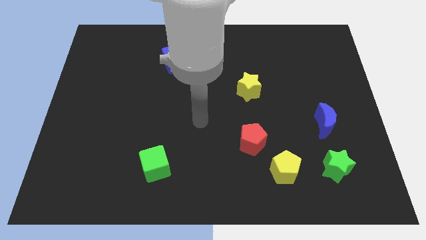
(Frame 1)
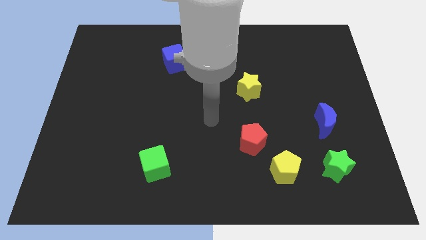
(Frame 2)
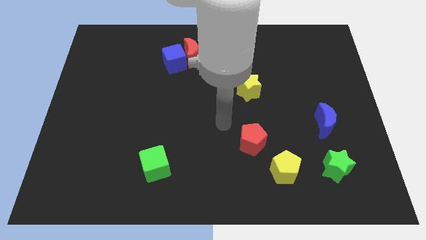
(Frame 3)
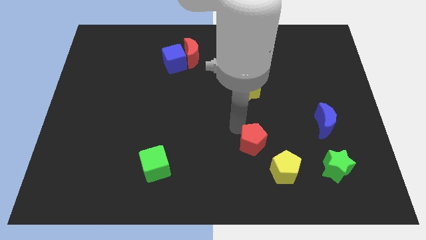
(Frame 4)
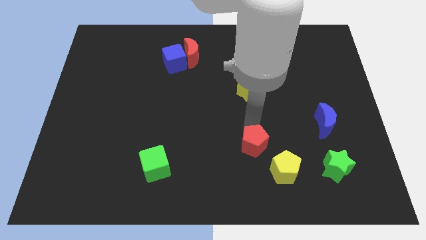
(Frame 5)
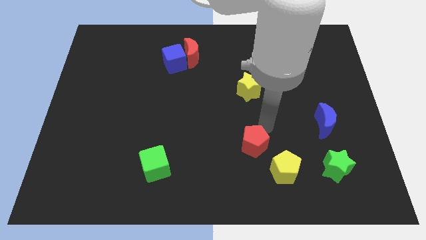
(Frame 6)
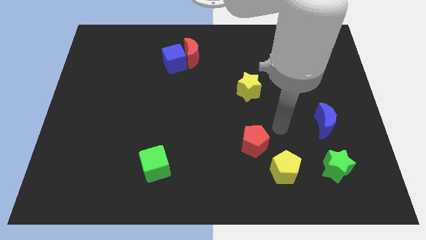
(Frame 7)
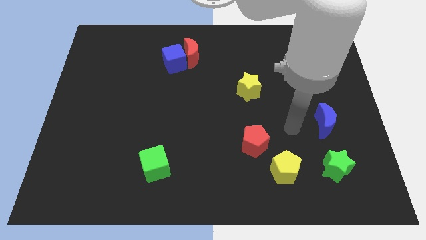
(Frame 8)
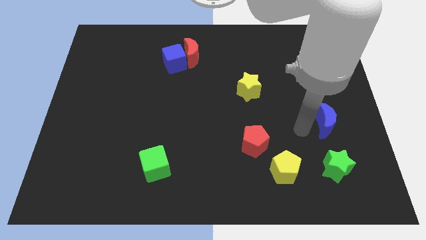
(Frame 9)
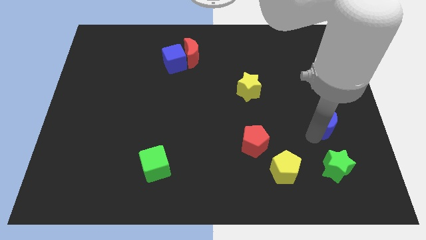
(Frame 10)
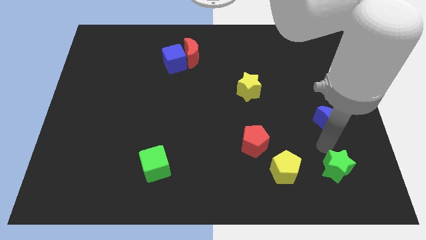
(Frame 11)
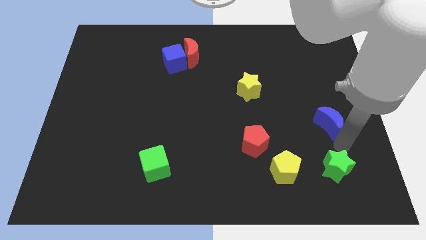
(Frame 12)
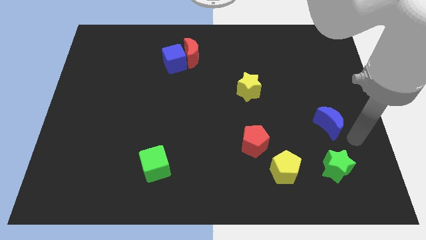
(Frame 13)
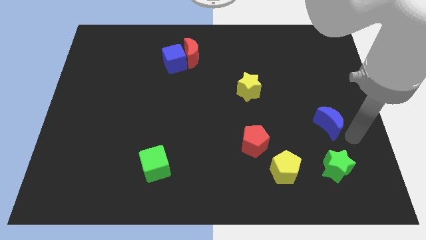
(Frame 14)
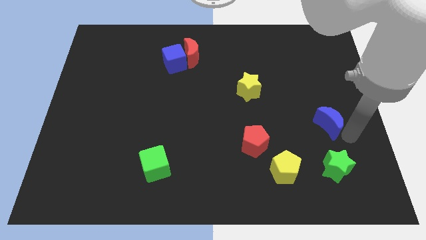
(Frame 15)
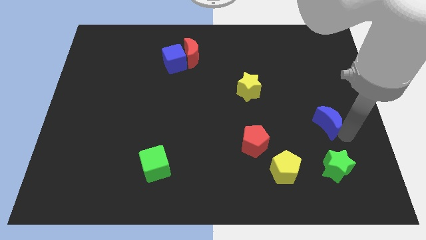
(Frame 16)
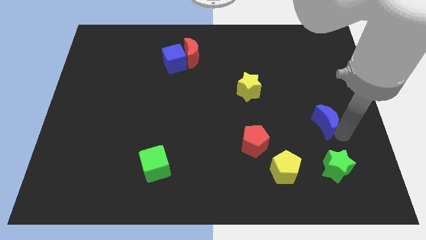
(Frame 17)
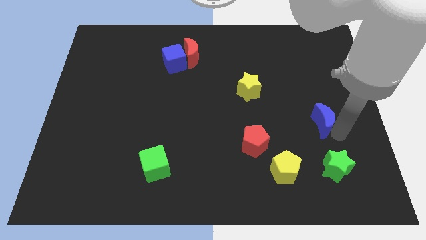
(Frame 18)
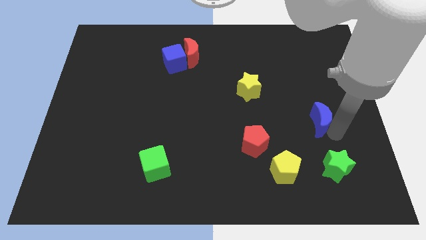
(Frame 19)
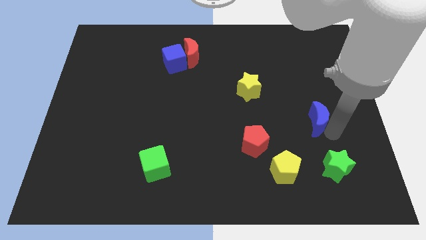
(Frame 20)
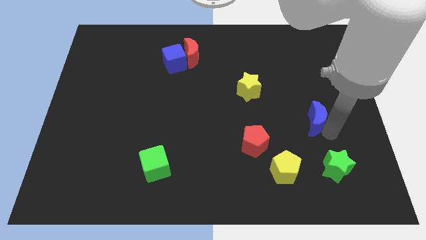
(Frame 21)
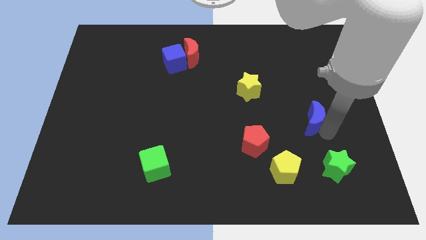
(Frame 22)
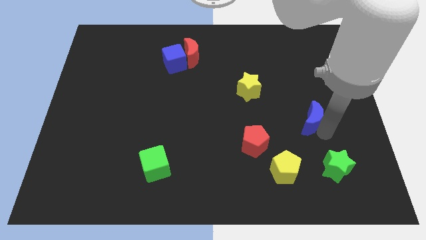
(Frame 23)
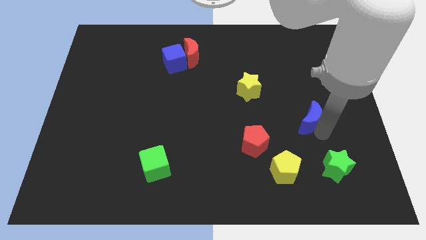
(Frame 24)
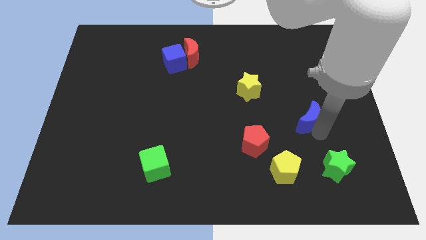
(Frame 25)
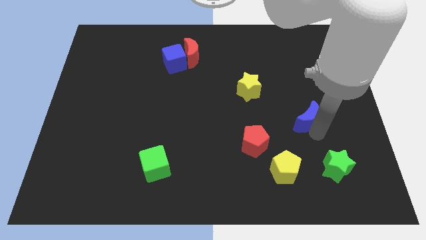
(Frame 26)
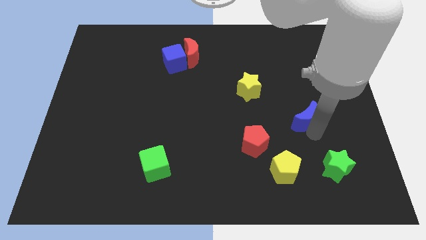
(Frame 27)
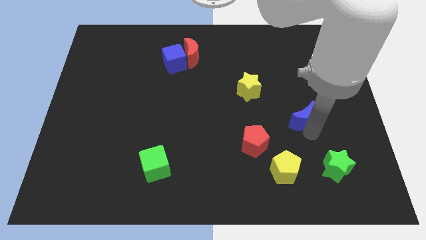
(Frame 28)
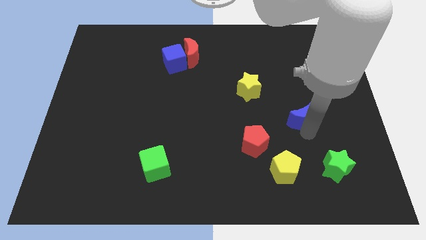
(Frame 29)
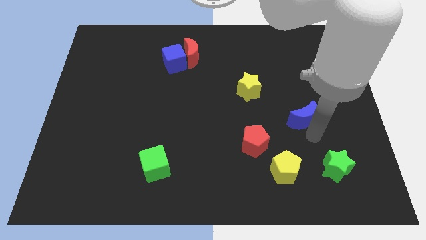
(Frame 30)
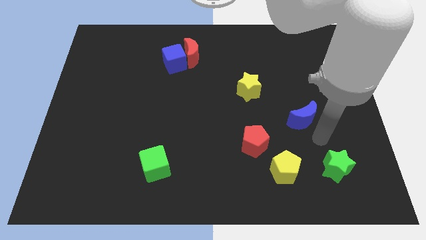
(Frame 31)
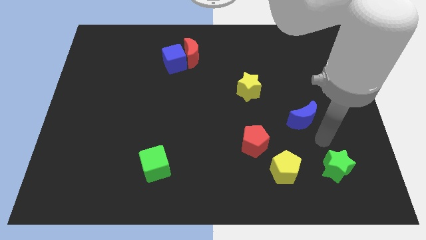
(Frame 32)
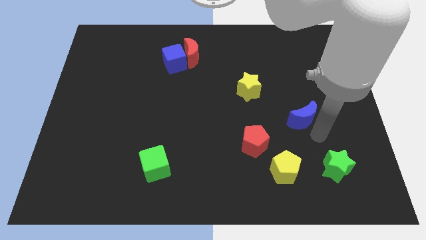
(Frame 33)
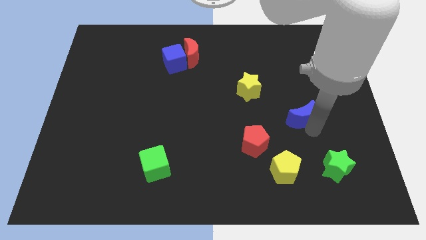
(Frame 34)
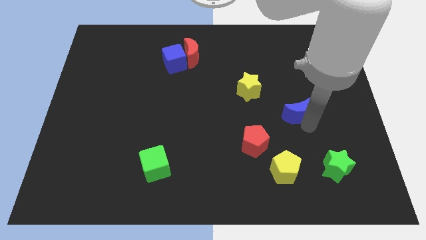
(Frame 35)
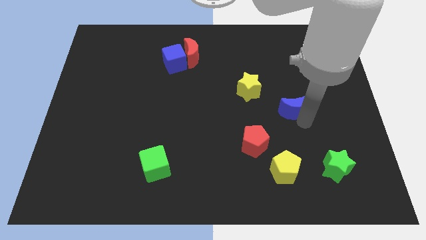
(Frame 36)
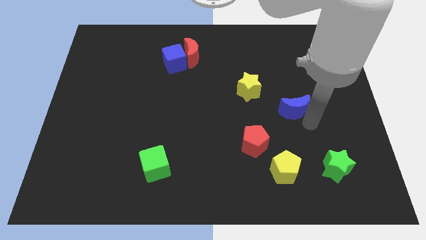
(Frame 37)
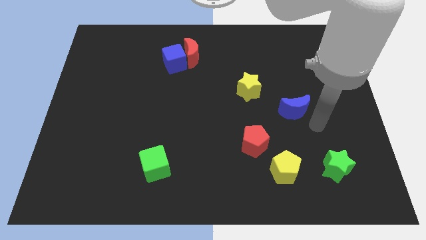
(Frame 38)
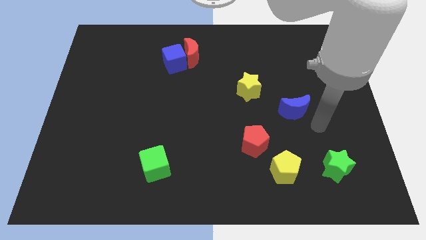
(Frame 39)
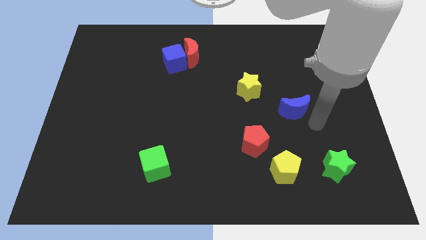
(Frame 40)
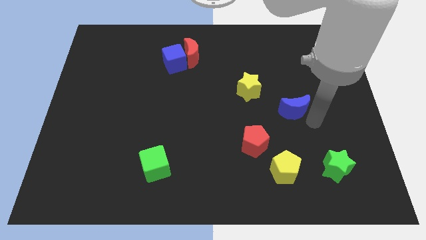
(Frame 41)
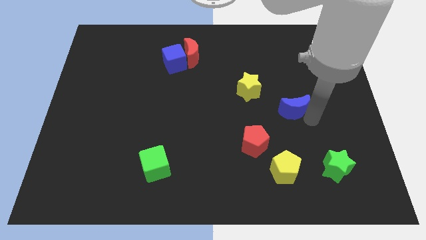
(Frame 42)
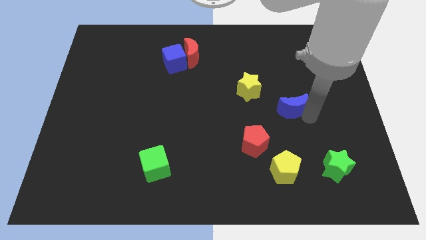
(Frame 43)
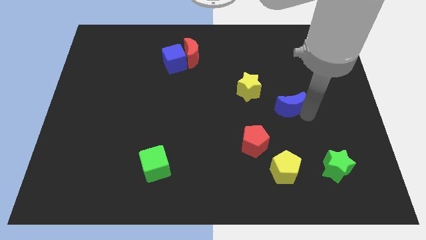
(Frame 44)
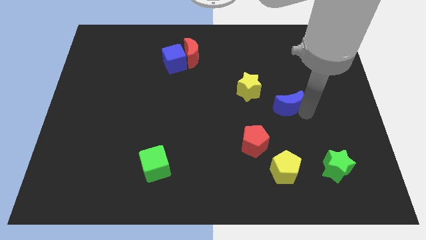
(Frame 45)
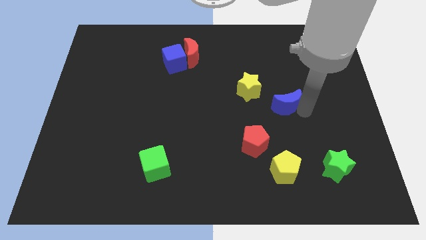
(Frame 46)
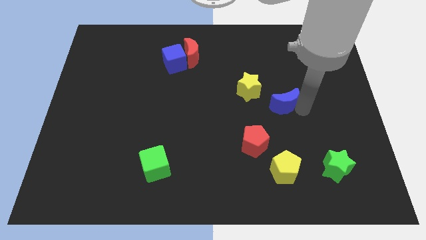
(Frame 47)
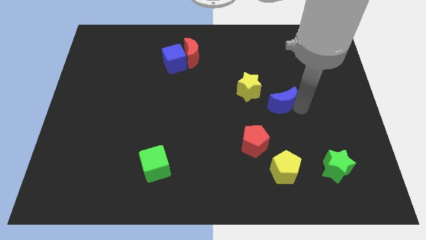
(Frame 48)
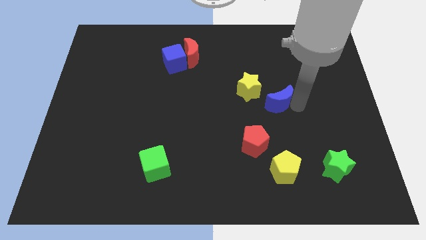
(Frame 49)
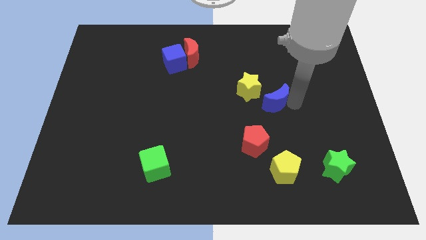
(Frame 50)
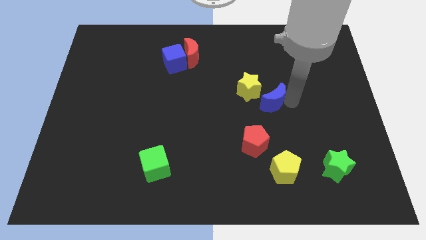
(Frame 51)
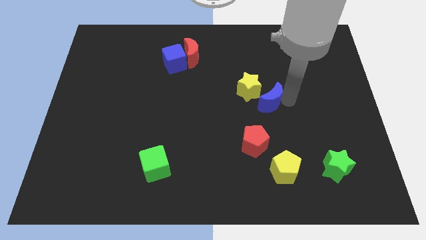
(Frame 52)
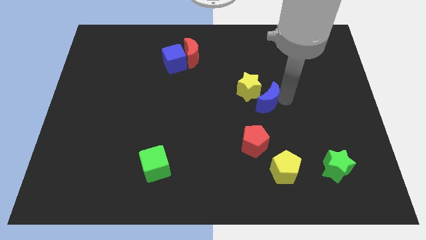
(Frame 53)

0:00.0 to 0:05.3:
move the blue moon to the yellow star

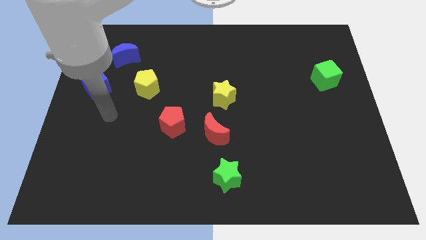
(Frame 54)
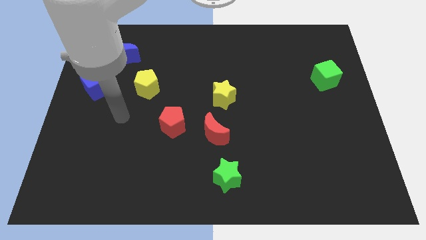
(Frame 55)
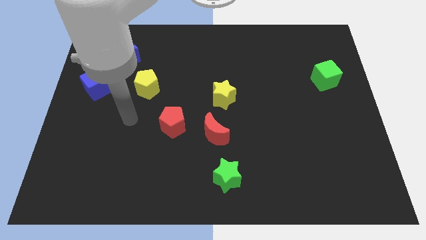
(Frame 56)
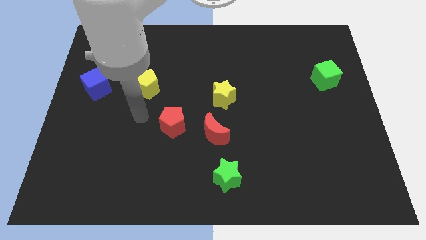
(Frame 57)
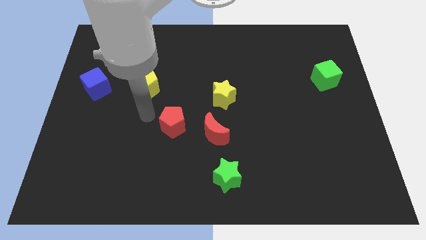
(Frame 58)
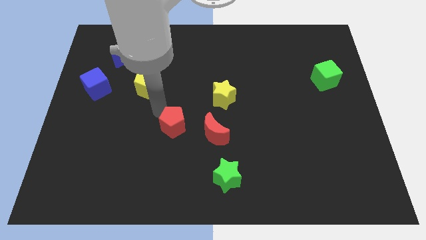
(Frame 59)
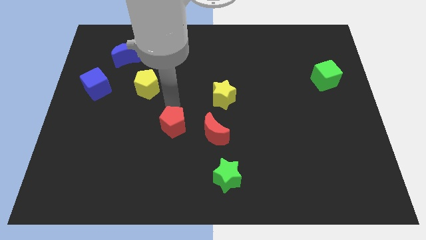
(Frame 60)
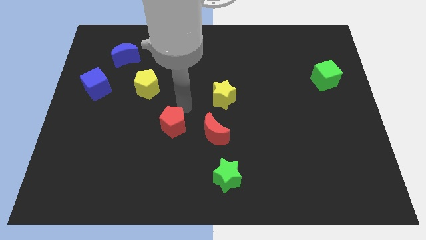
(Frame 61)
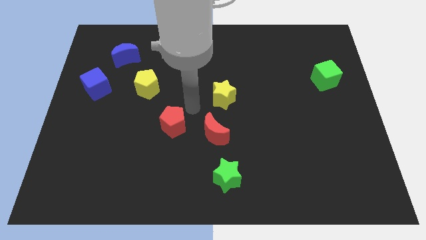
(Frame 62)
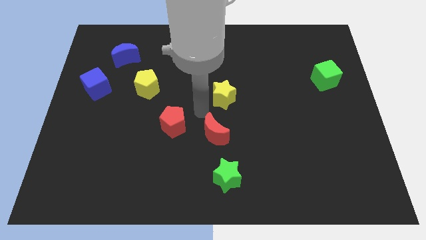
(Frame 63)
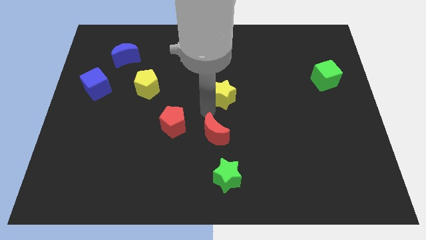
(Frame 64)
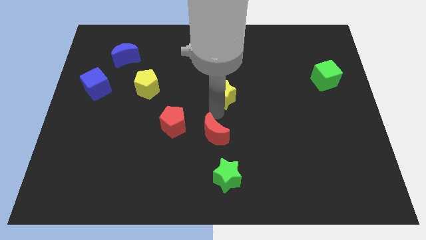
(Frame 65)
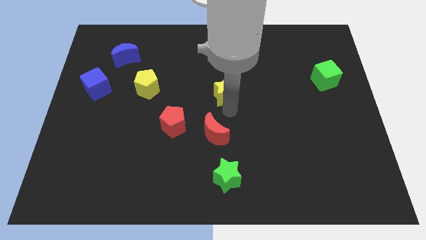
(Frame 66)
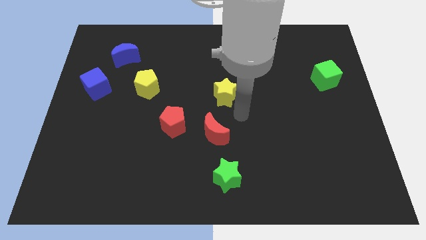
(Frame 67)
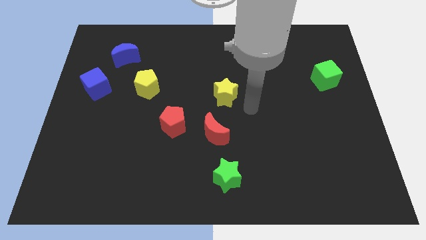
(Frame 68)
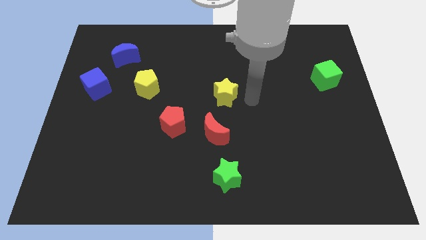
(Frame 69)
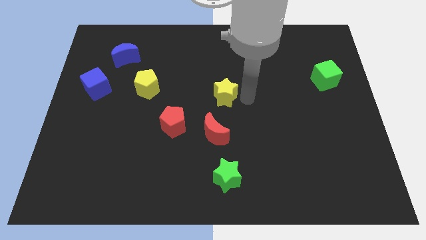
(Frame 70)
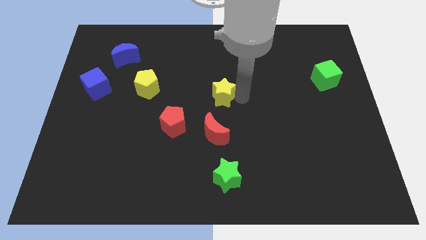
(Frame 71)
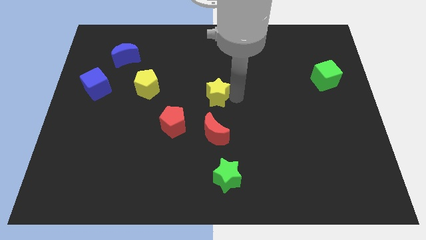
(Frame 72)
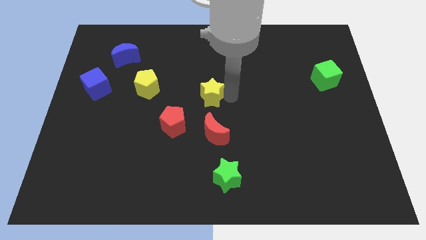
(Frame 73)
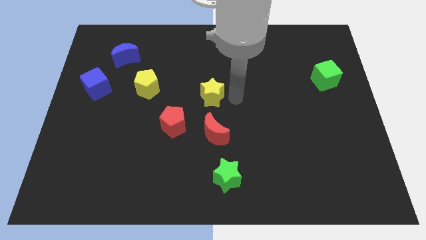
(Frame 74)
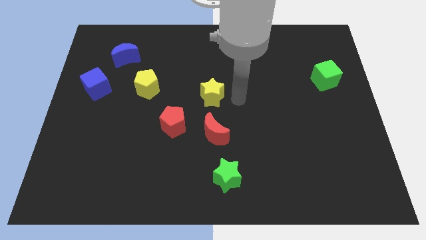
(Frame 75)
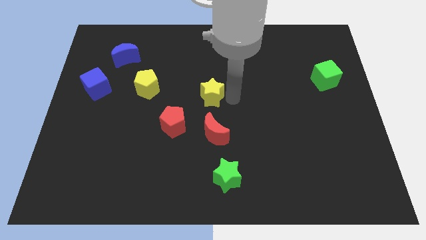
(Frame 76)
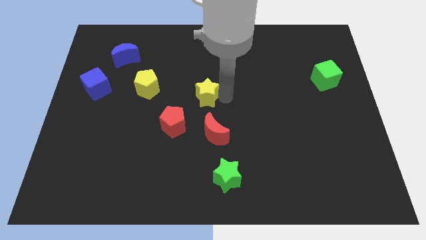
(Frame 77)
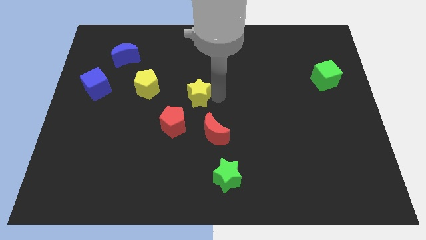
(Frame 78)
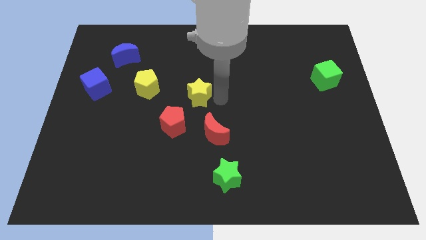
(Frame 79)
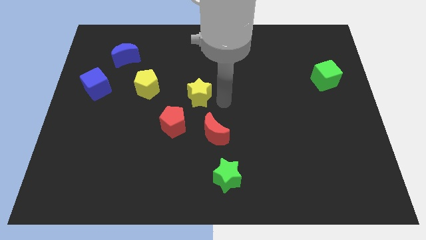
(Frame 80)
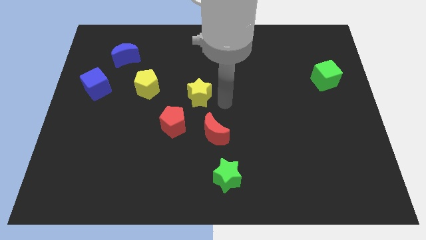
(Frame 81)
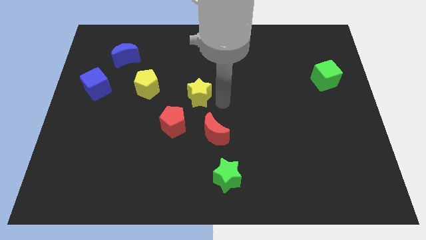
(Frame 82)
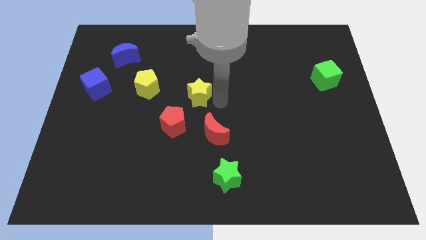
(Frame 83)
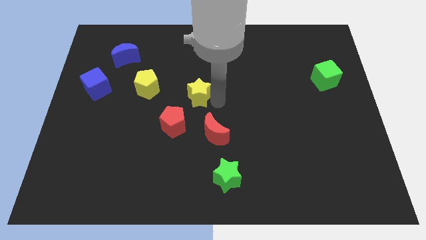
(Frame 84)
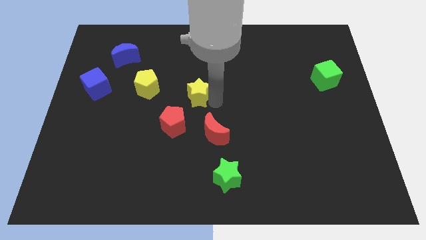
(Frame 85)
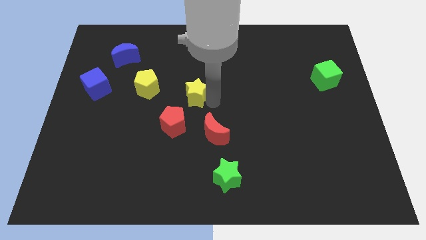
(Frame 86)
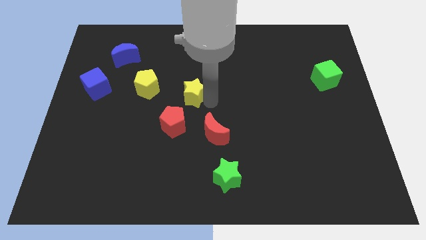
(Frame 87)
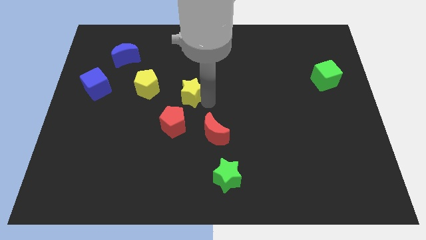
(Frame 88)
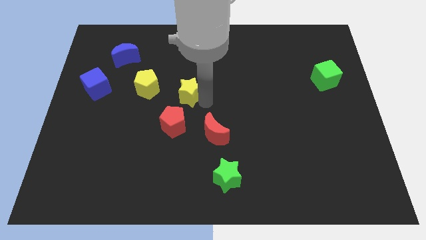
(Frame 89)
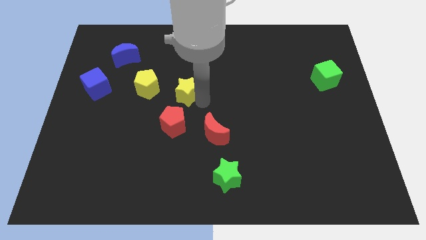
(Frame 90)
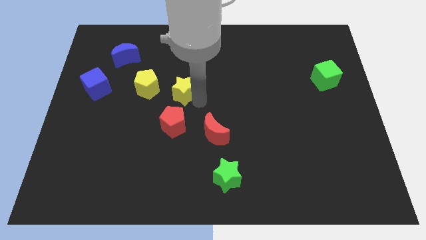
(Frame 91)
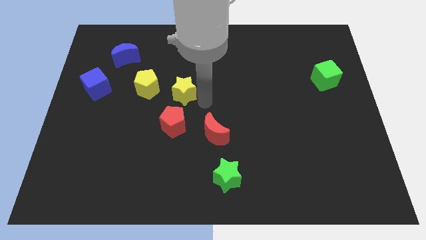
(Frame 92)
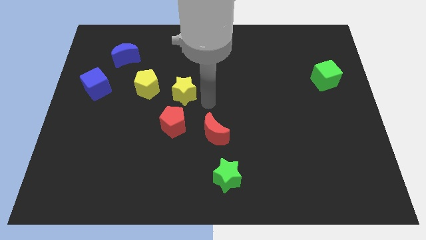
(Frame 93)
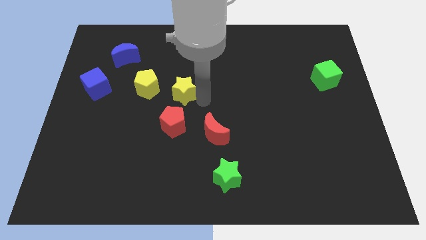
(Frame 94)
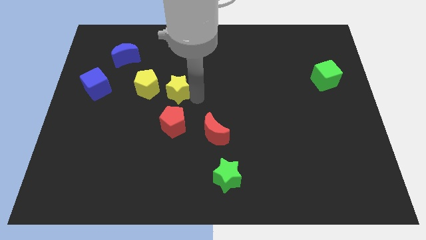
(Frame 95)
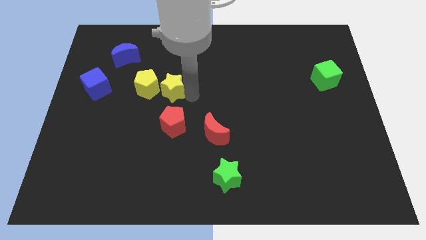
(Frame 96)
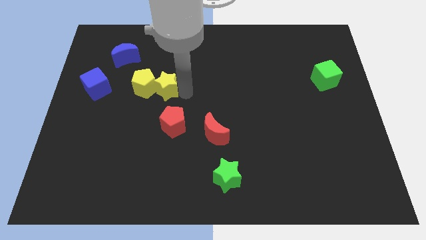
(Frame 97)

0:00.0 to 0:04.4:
slide the yellow star next to the yellow pentagon
